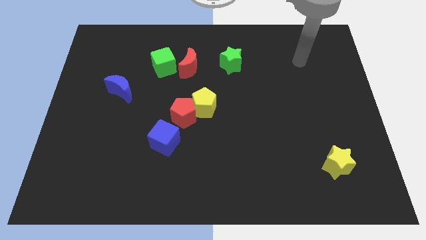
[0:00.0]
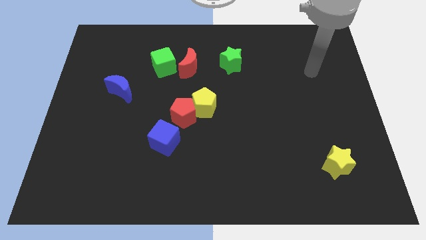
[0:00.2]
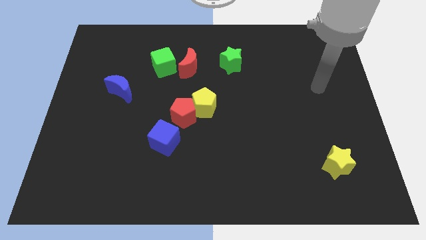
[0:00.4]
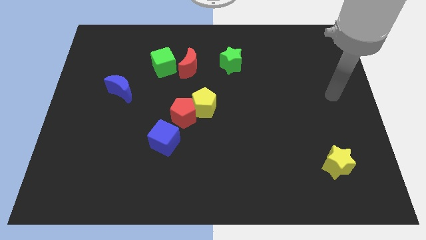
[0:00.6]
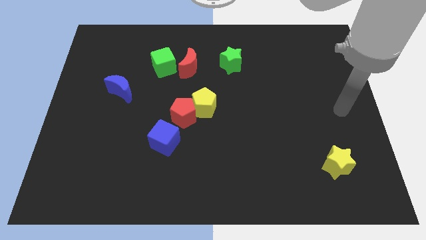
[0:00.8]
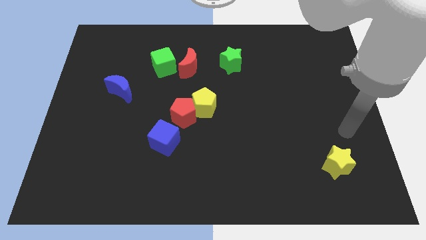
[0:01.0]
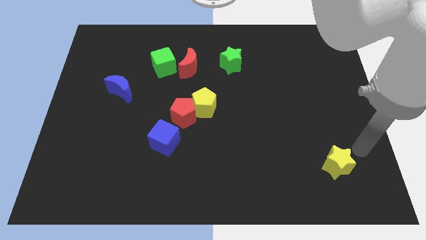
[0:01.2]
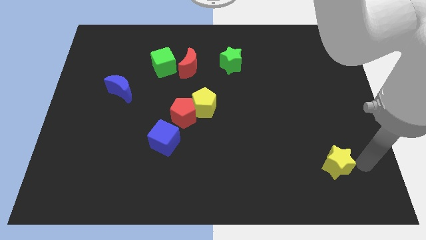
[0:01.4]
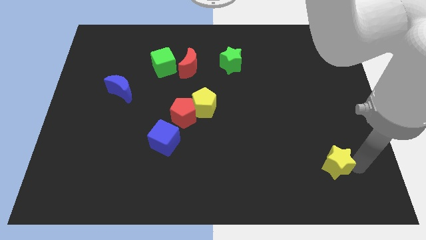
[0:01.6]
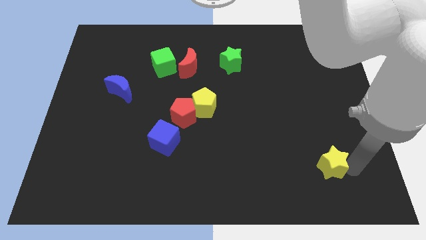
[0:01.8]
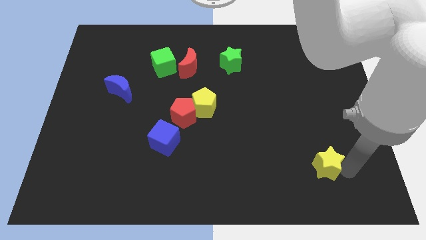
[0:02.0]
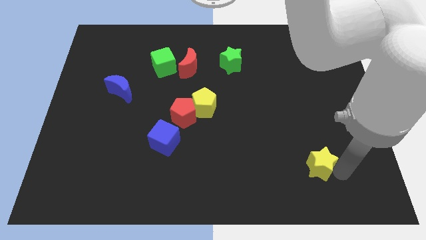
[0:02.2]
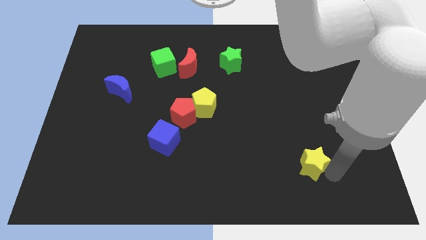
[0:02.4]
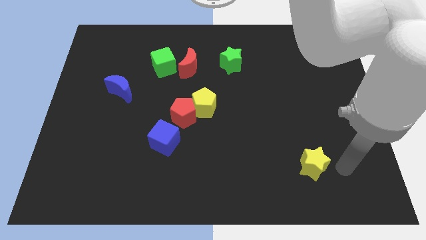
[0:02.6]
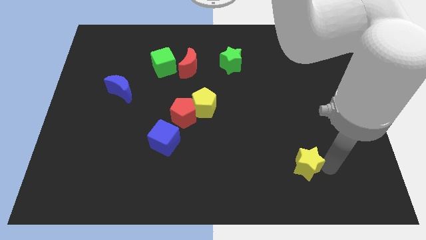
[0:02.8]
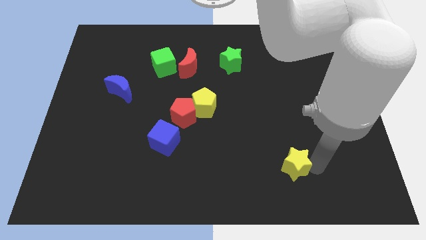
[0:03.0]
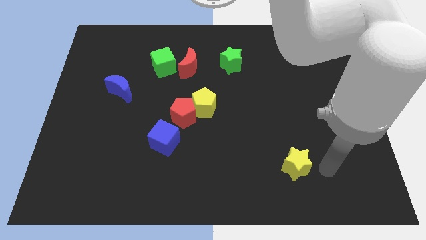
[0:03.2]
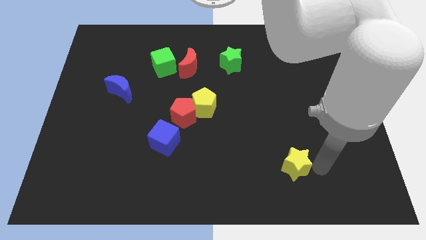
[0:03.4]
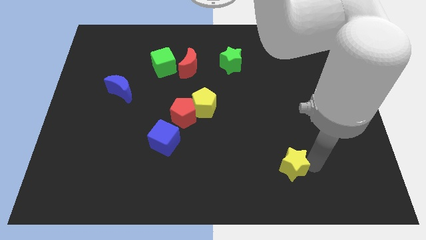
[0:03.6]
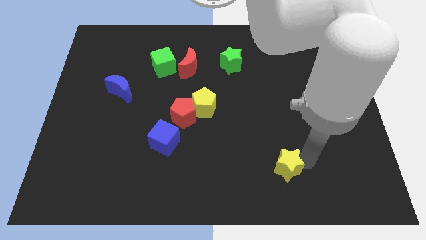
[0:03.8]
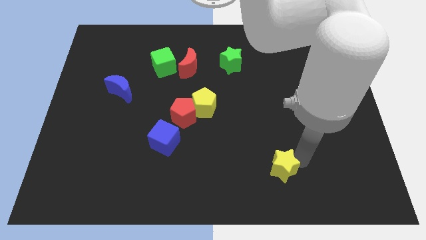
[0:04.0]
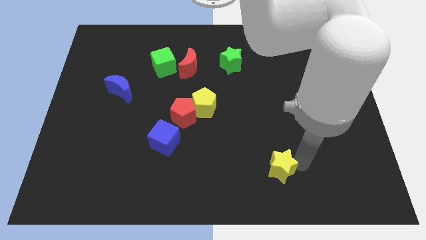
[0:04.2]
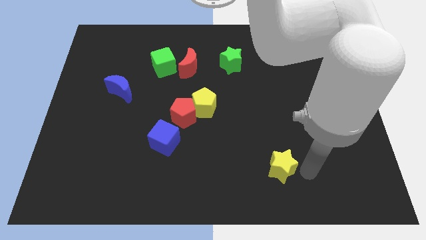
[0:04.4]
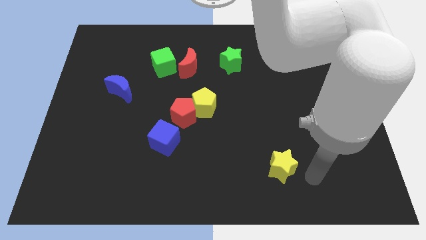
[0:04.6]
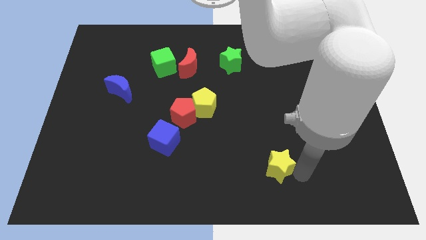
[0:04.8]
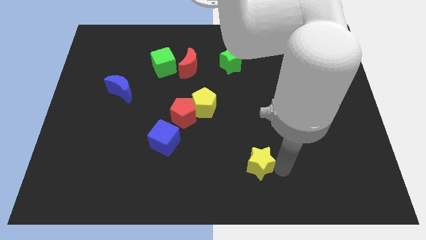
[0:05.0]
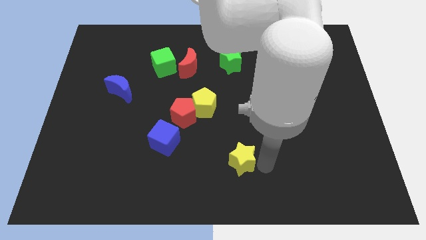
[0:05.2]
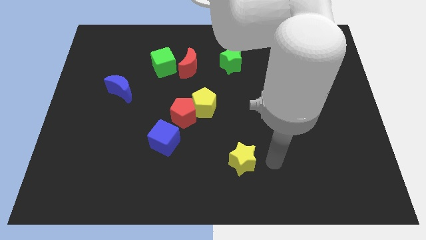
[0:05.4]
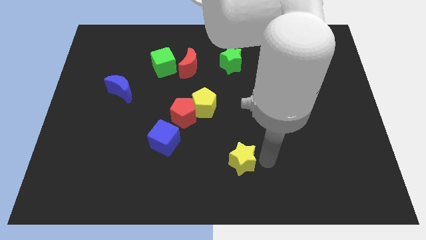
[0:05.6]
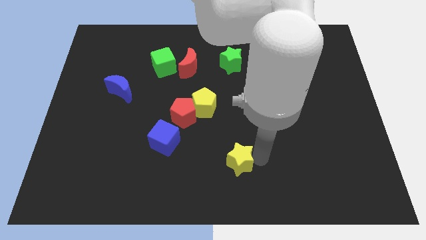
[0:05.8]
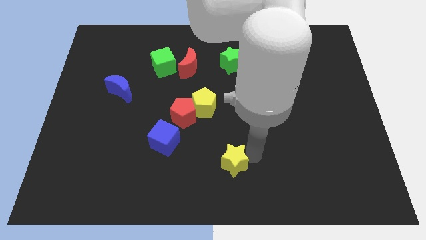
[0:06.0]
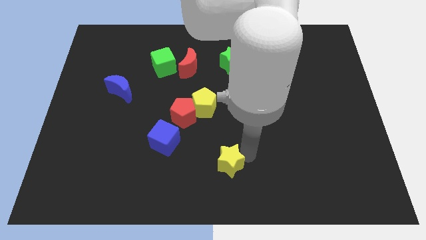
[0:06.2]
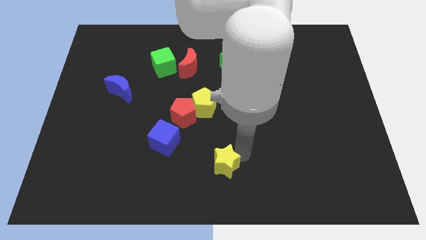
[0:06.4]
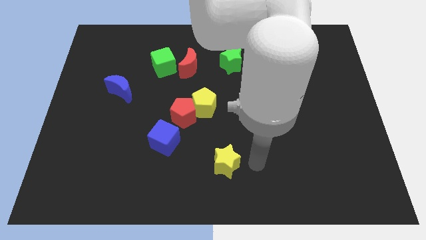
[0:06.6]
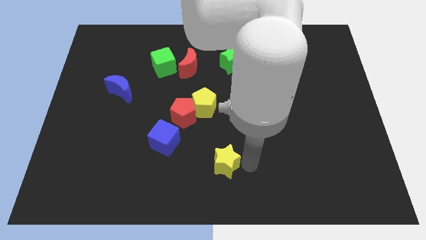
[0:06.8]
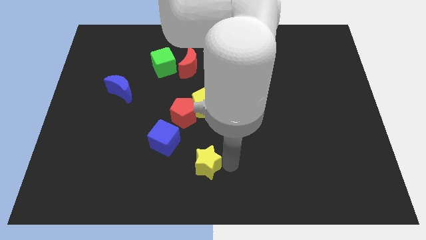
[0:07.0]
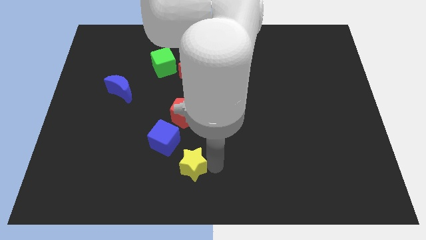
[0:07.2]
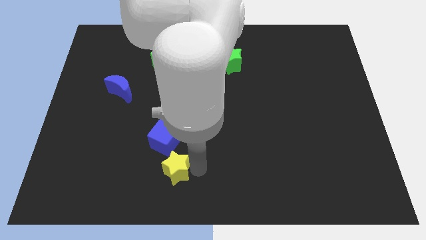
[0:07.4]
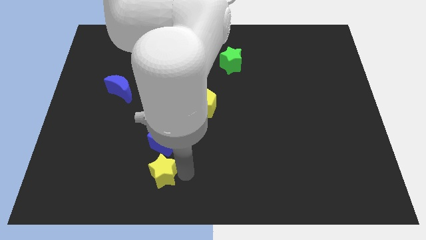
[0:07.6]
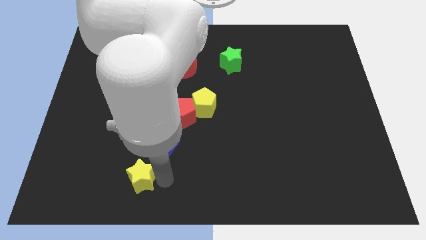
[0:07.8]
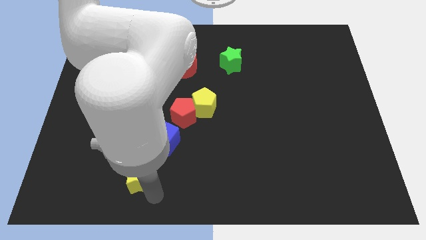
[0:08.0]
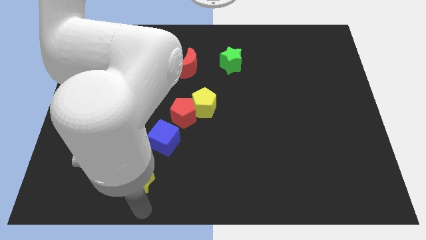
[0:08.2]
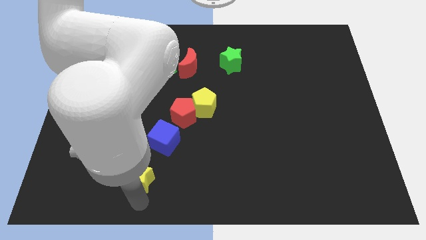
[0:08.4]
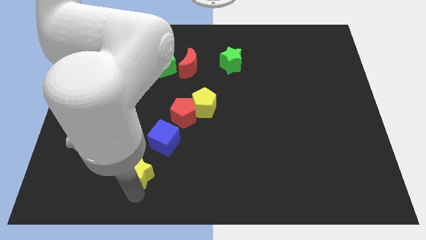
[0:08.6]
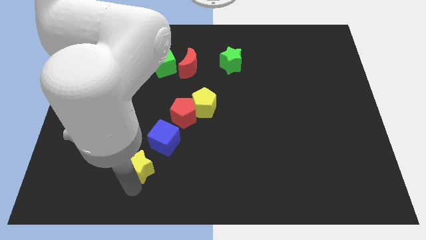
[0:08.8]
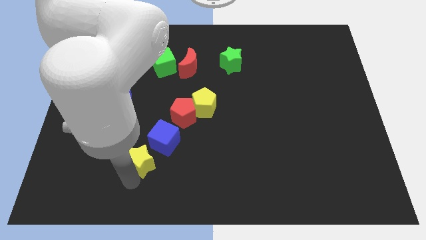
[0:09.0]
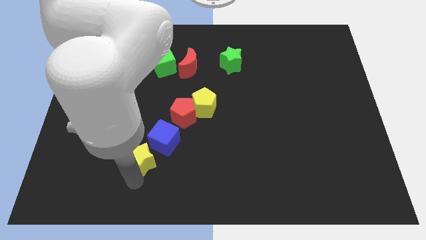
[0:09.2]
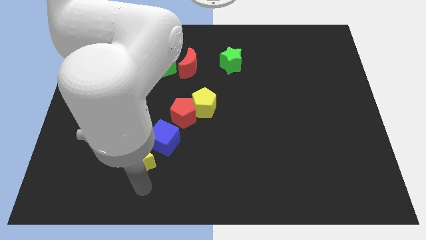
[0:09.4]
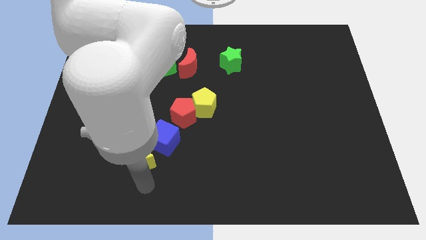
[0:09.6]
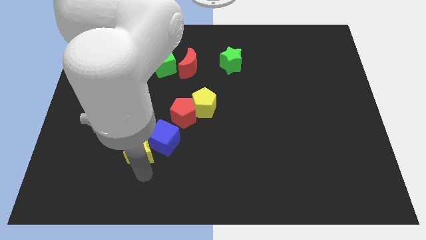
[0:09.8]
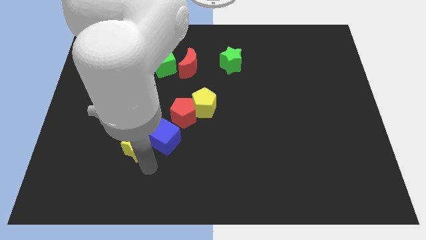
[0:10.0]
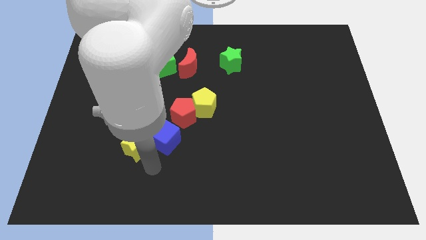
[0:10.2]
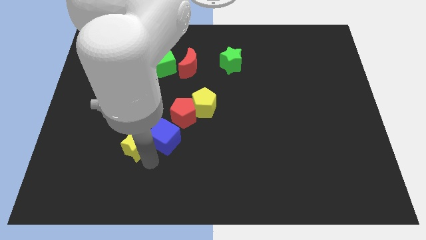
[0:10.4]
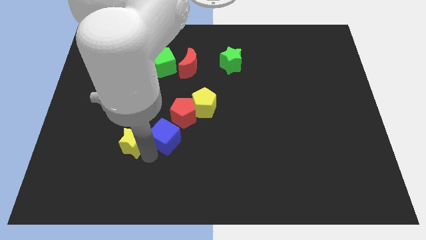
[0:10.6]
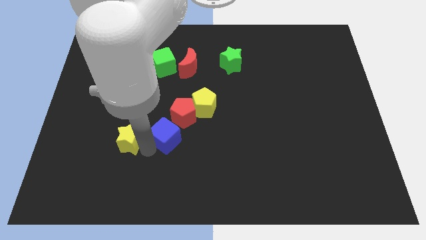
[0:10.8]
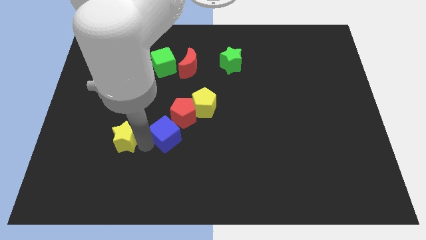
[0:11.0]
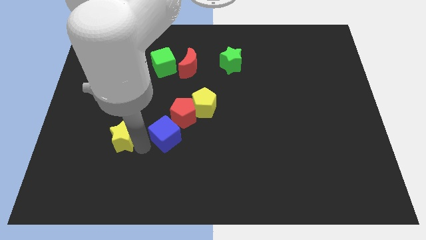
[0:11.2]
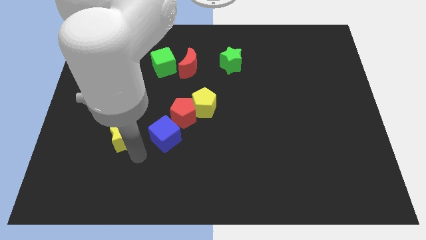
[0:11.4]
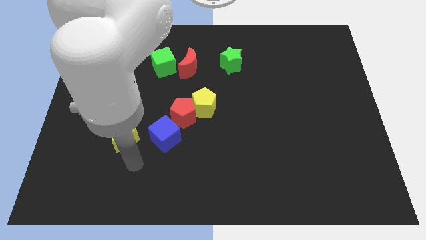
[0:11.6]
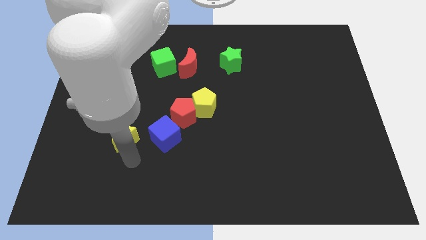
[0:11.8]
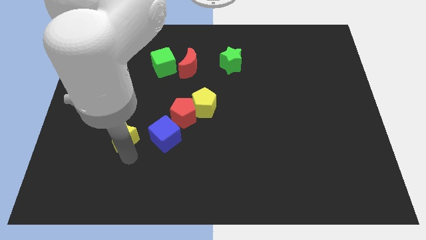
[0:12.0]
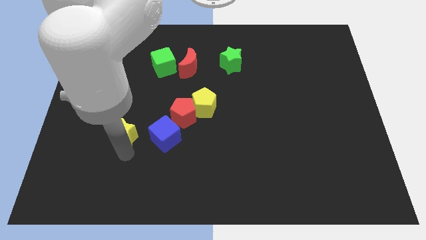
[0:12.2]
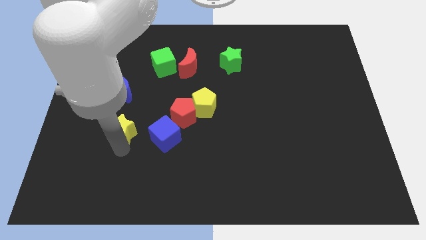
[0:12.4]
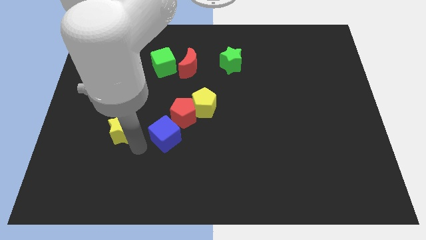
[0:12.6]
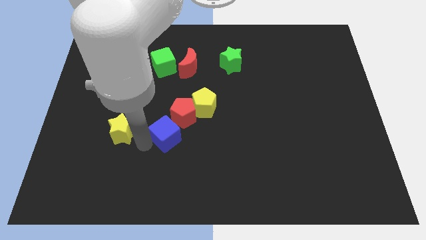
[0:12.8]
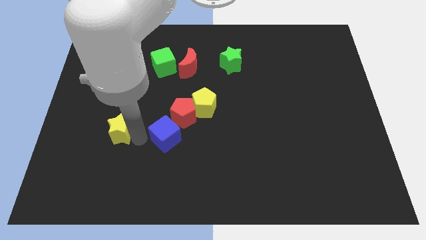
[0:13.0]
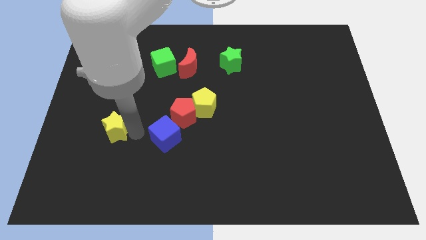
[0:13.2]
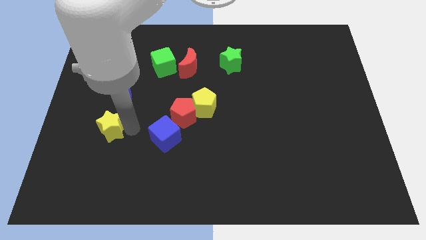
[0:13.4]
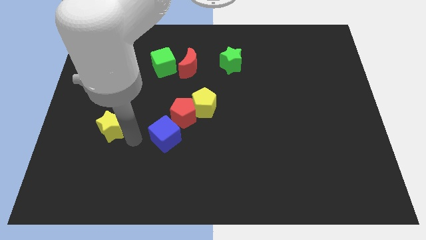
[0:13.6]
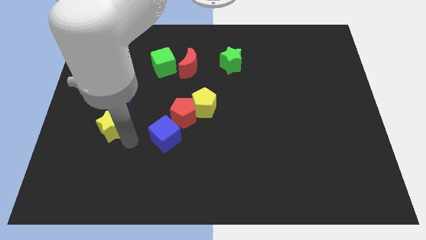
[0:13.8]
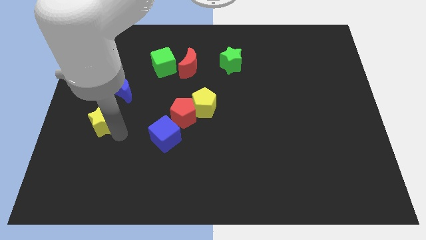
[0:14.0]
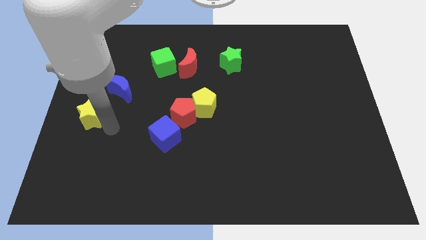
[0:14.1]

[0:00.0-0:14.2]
put the yellow star to the center left
